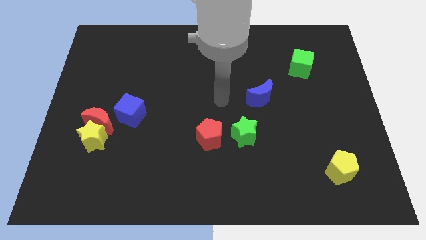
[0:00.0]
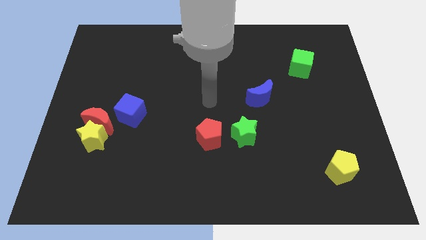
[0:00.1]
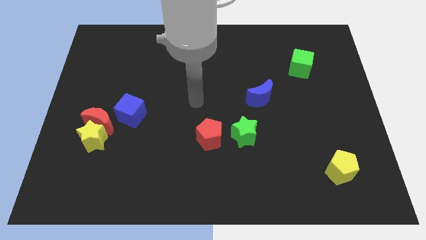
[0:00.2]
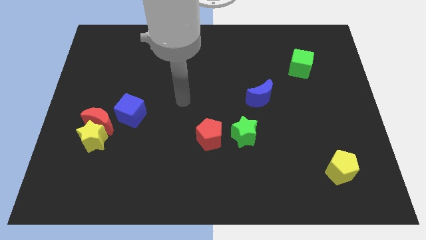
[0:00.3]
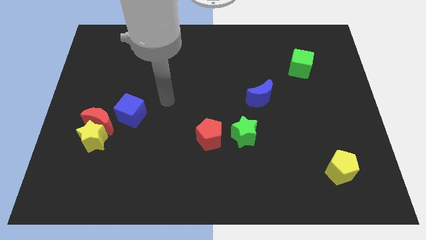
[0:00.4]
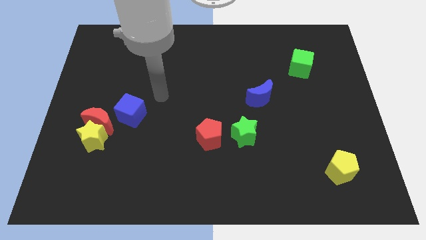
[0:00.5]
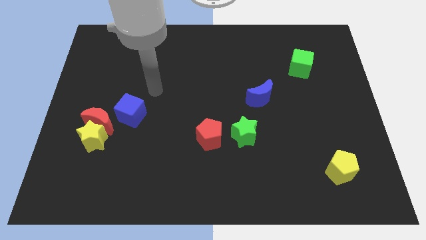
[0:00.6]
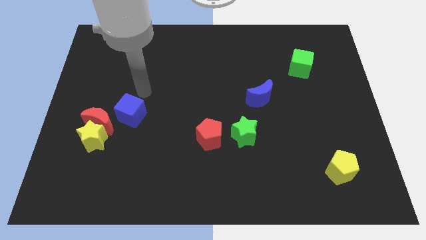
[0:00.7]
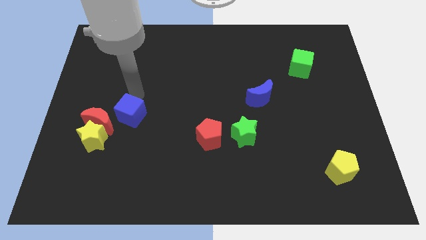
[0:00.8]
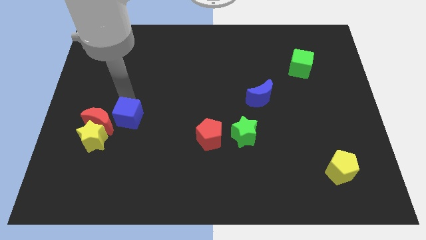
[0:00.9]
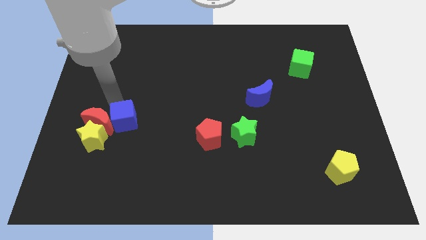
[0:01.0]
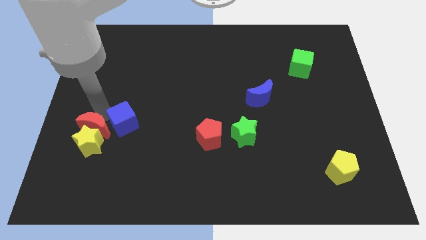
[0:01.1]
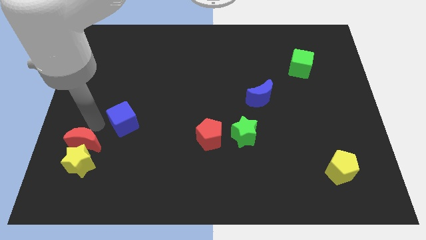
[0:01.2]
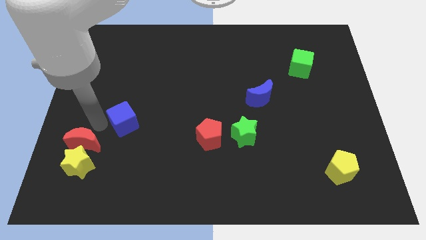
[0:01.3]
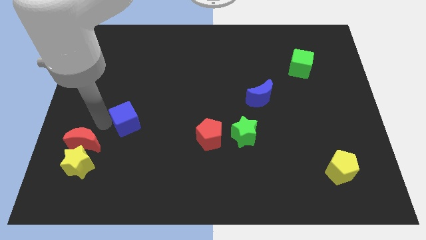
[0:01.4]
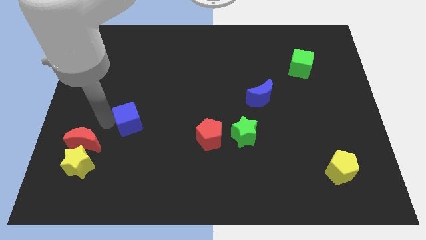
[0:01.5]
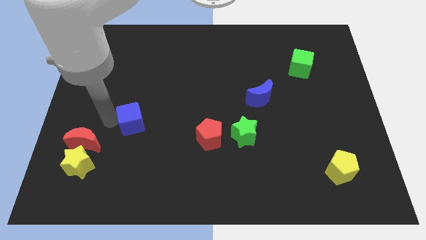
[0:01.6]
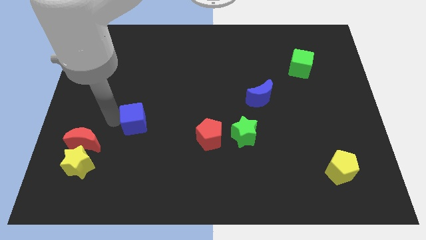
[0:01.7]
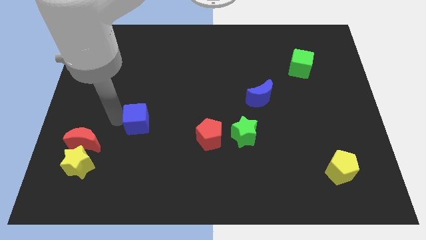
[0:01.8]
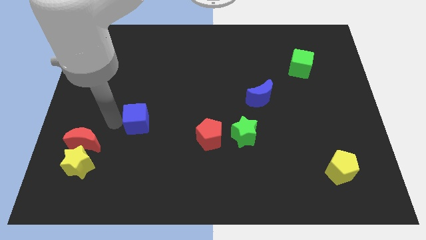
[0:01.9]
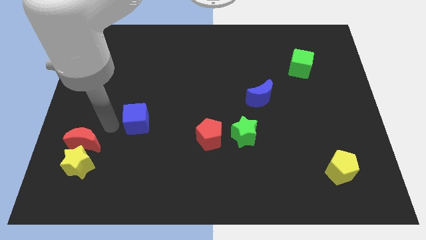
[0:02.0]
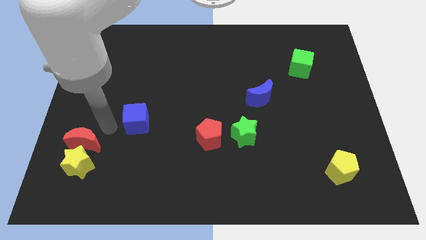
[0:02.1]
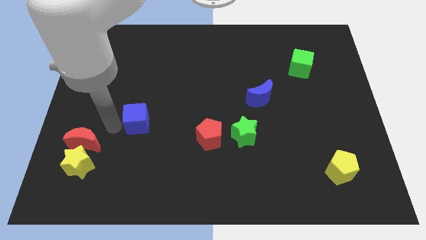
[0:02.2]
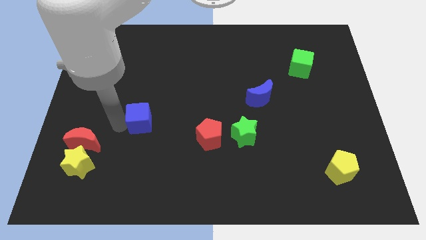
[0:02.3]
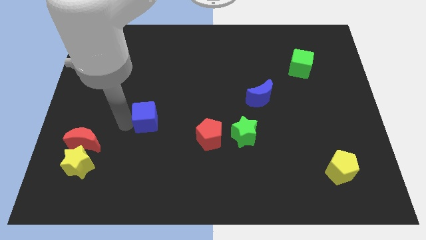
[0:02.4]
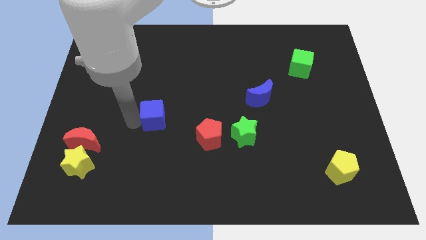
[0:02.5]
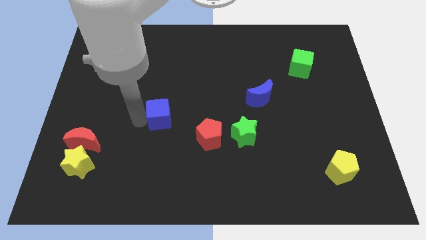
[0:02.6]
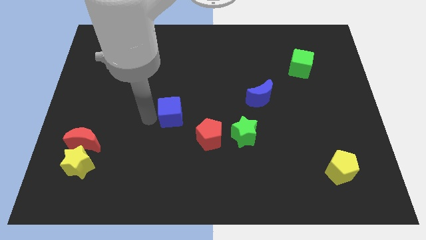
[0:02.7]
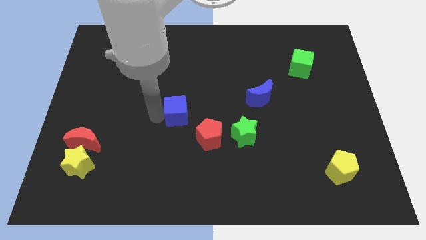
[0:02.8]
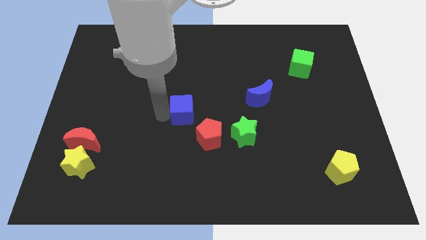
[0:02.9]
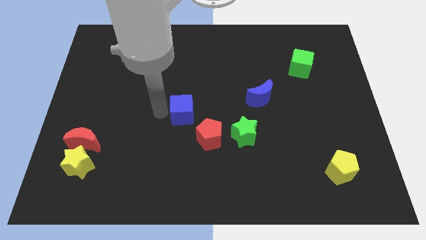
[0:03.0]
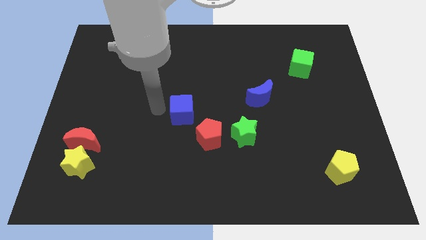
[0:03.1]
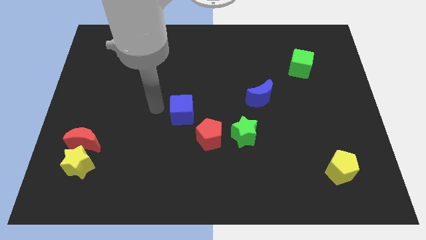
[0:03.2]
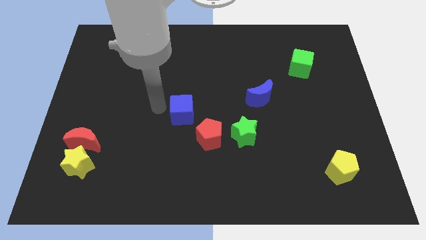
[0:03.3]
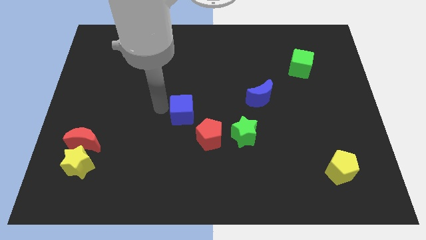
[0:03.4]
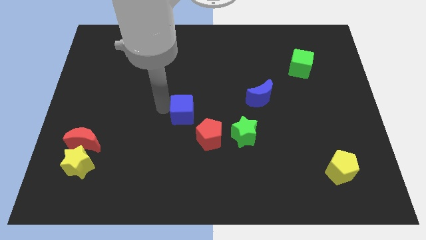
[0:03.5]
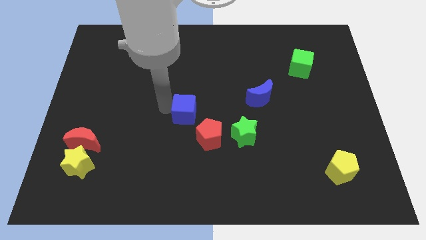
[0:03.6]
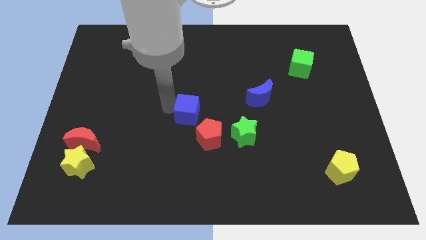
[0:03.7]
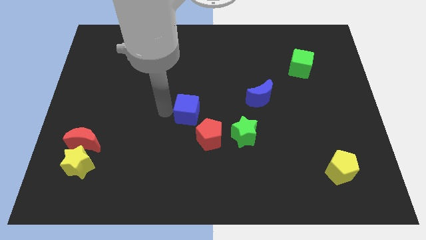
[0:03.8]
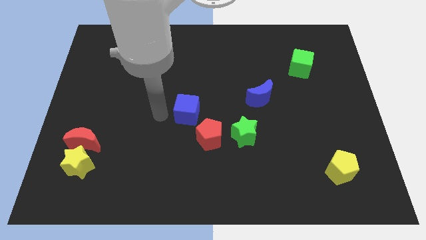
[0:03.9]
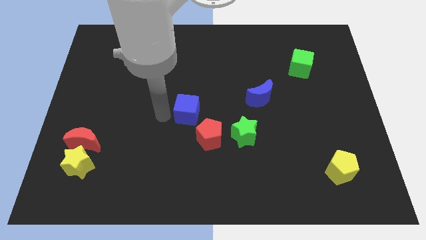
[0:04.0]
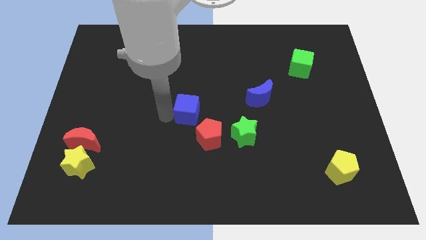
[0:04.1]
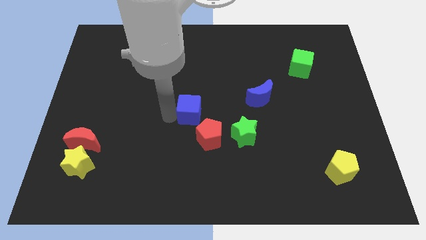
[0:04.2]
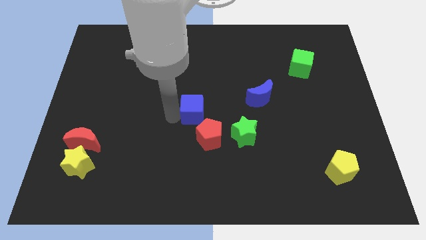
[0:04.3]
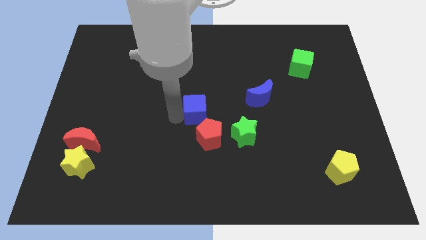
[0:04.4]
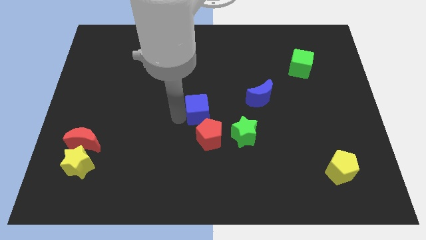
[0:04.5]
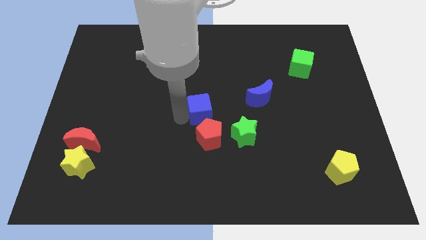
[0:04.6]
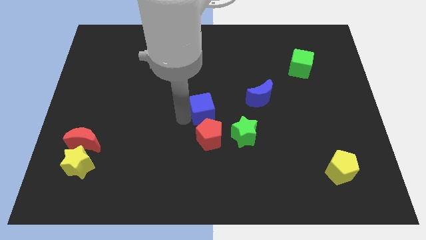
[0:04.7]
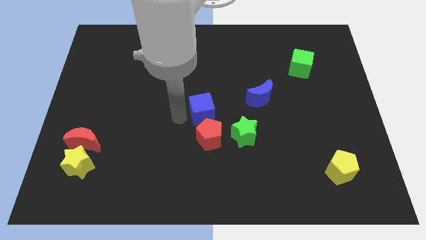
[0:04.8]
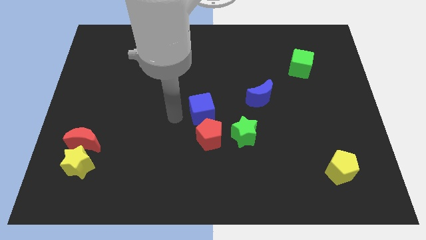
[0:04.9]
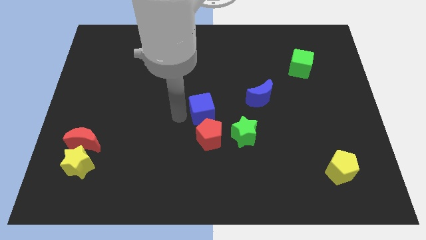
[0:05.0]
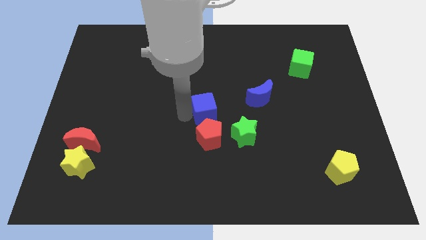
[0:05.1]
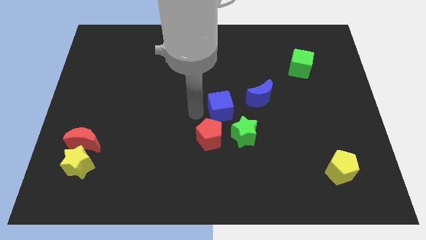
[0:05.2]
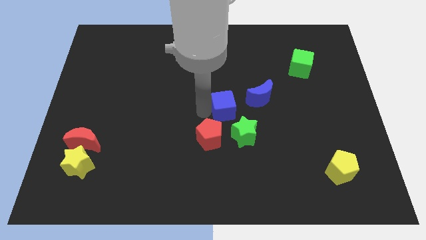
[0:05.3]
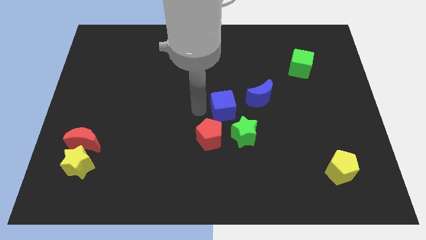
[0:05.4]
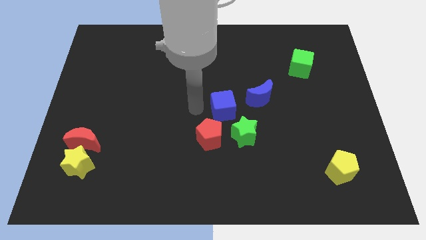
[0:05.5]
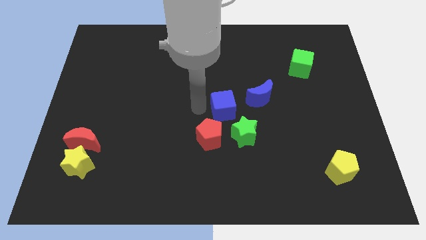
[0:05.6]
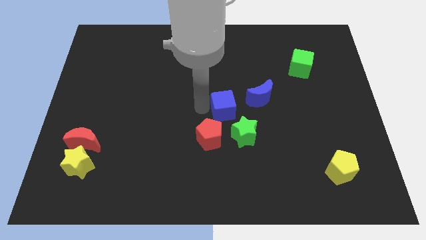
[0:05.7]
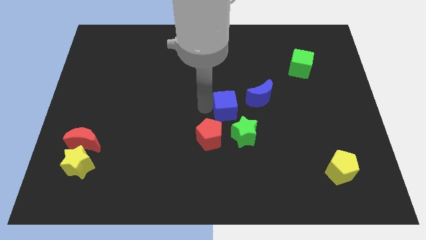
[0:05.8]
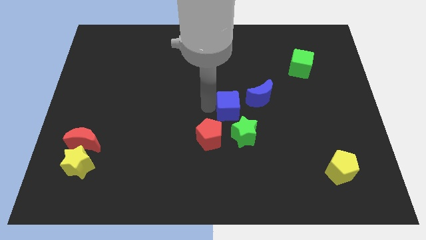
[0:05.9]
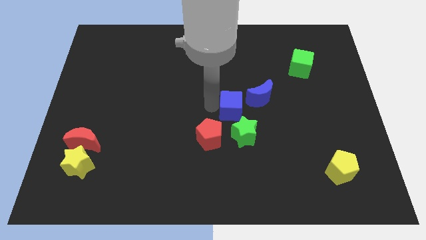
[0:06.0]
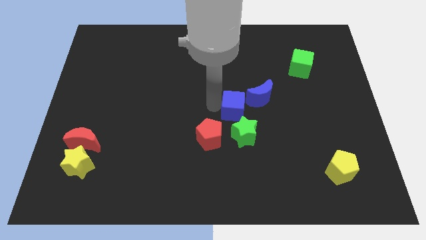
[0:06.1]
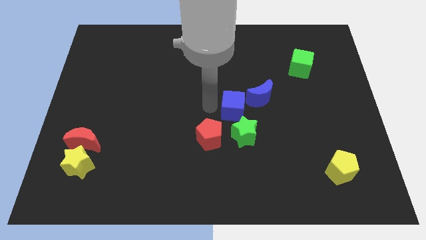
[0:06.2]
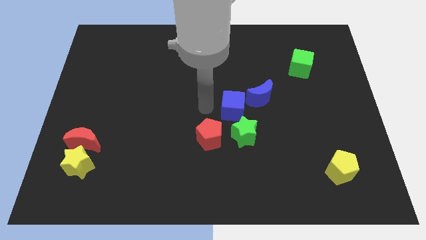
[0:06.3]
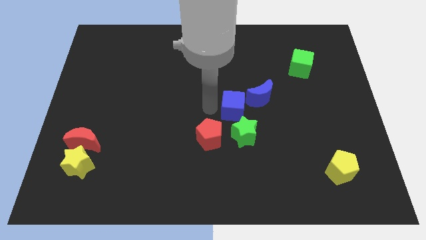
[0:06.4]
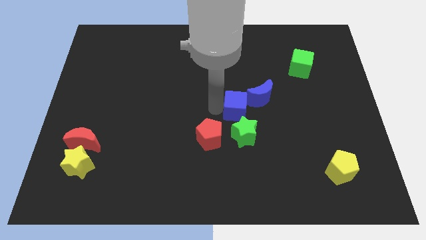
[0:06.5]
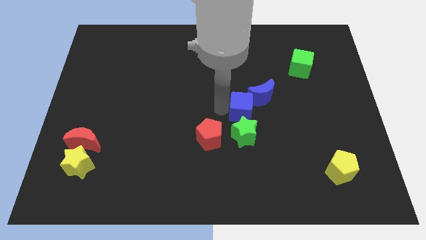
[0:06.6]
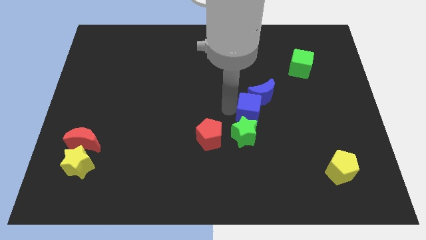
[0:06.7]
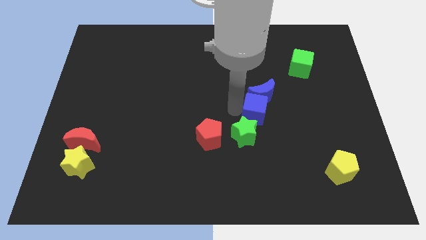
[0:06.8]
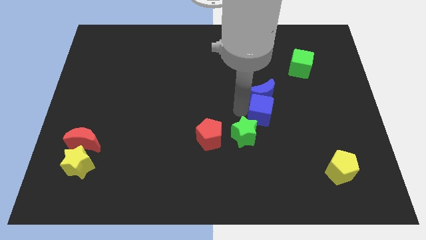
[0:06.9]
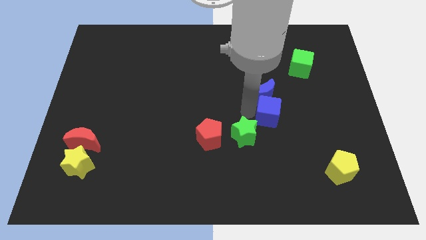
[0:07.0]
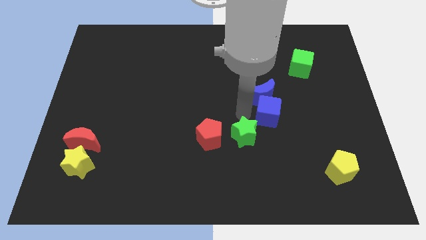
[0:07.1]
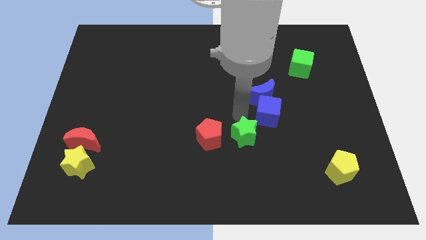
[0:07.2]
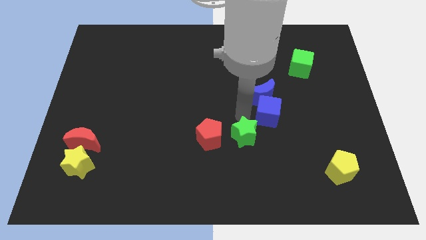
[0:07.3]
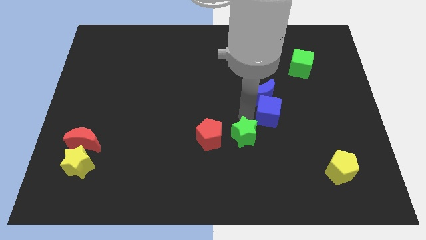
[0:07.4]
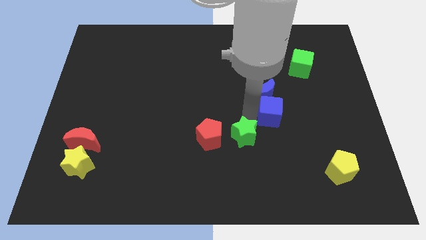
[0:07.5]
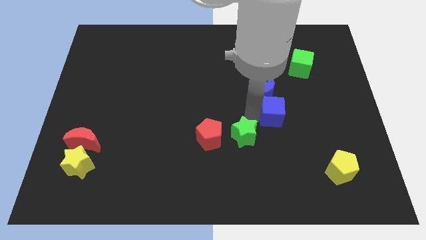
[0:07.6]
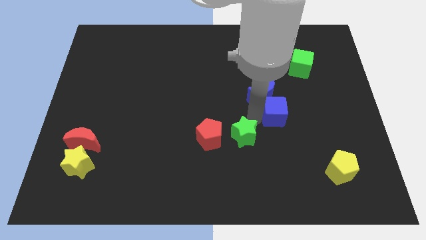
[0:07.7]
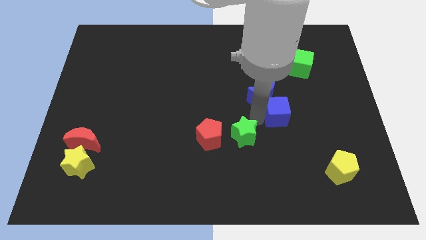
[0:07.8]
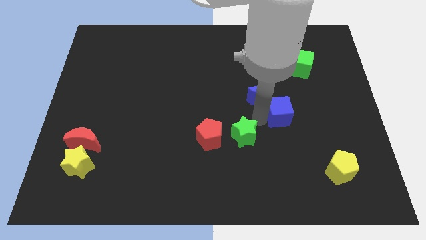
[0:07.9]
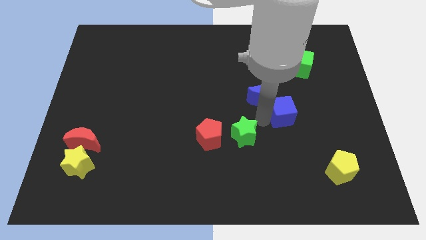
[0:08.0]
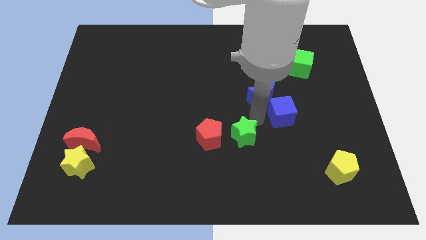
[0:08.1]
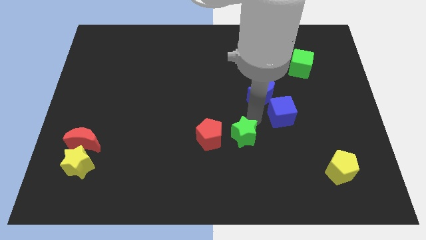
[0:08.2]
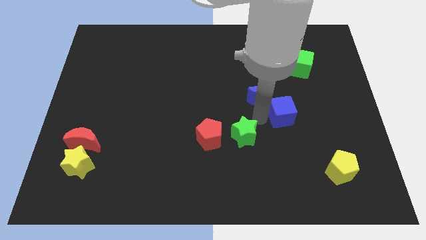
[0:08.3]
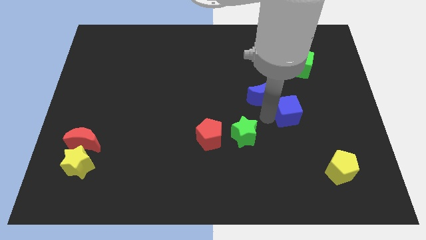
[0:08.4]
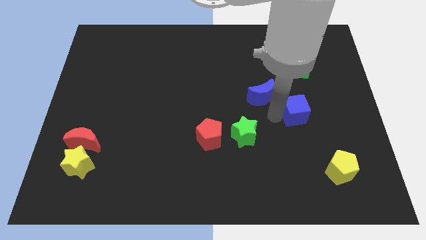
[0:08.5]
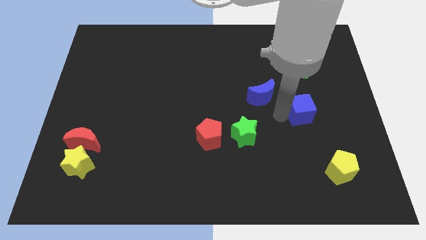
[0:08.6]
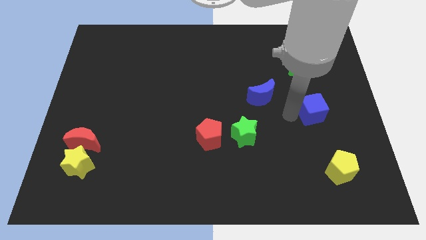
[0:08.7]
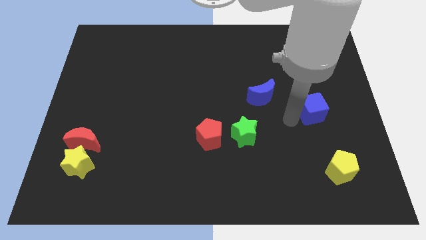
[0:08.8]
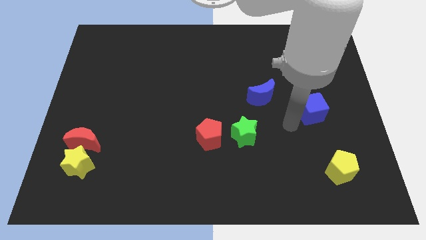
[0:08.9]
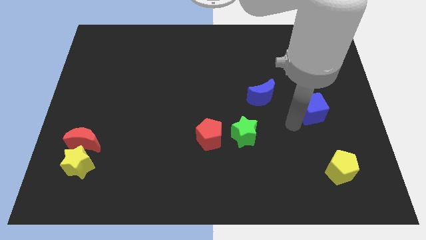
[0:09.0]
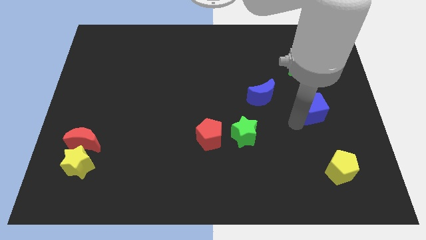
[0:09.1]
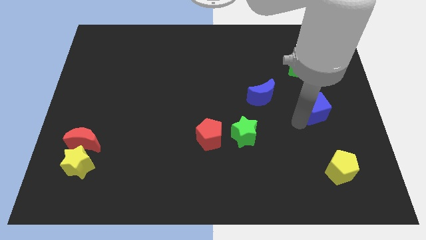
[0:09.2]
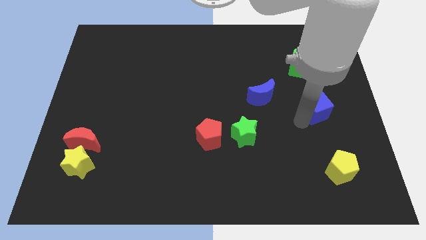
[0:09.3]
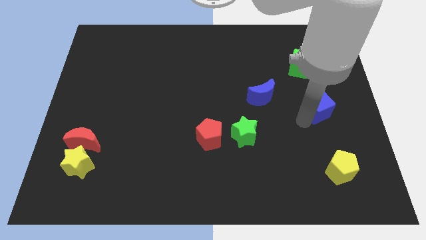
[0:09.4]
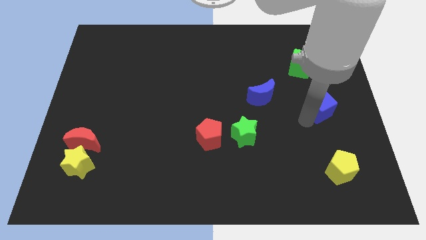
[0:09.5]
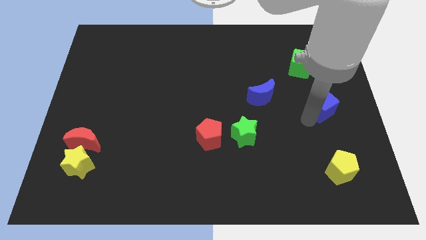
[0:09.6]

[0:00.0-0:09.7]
push the blue cube to the center right
